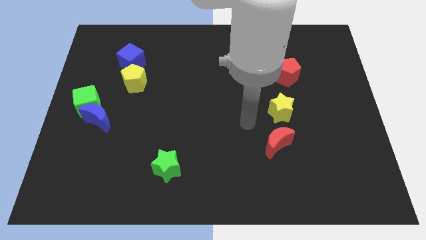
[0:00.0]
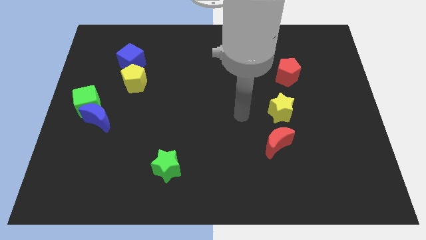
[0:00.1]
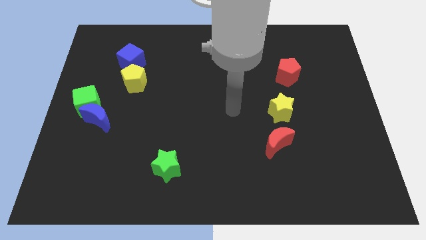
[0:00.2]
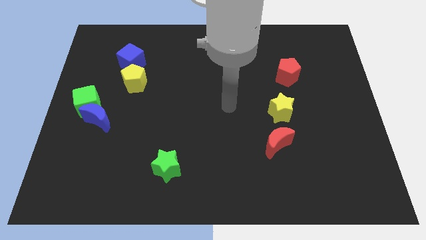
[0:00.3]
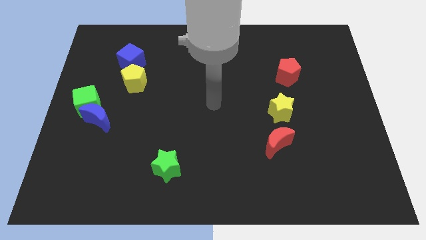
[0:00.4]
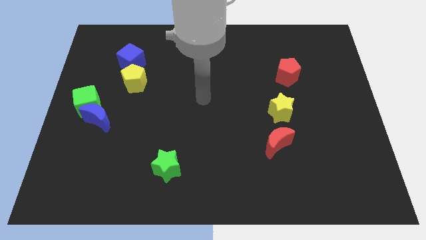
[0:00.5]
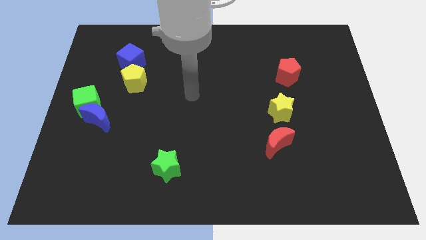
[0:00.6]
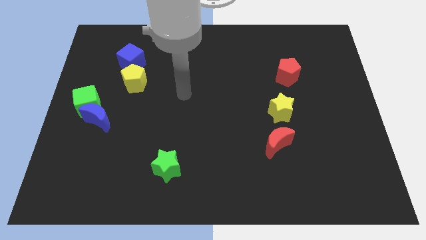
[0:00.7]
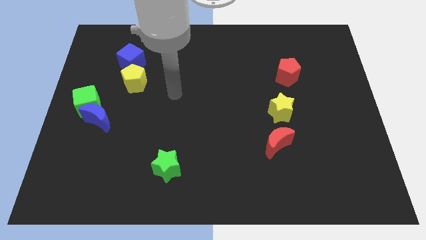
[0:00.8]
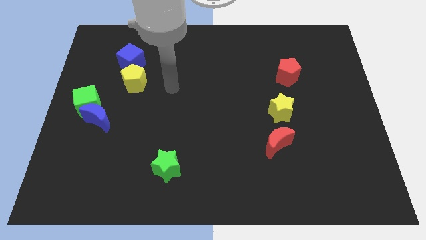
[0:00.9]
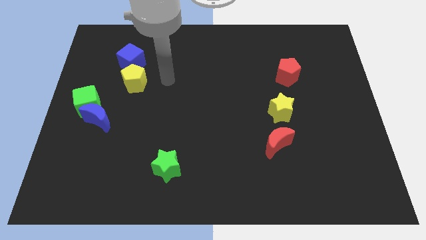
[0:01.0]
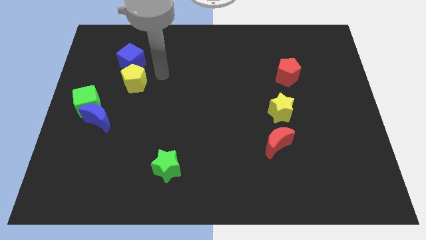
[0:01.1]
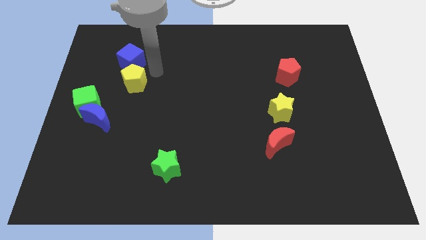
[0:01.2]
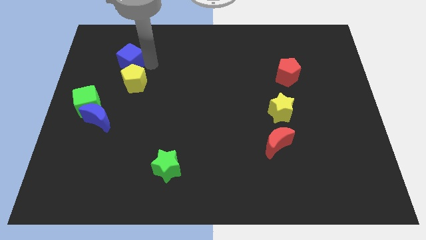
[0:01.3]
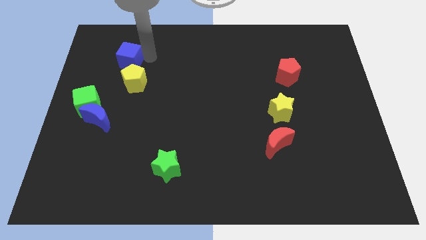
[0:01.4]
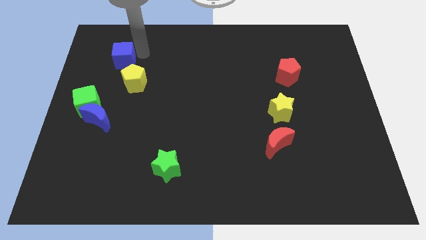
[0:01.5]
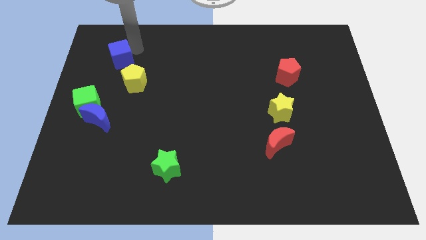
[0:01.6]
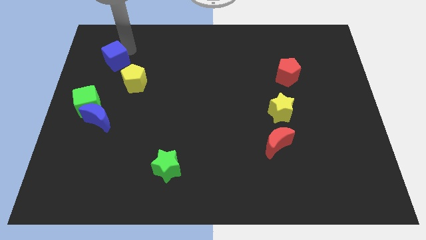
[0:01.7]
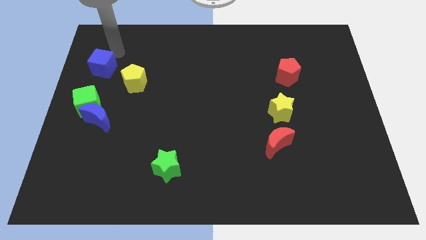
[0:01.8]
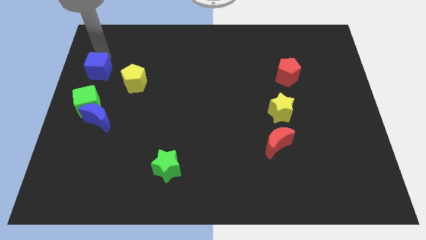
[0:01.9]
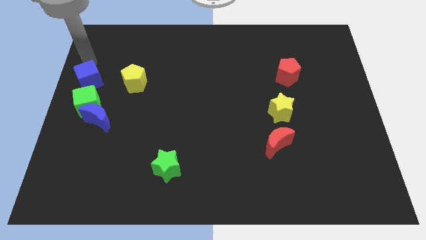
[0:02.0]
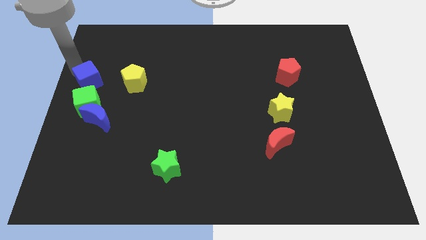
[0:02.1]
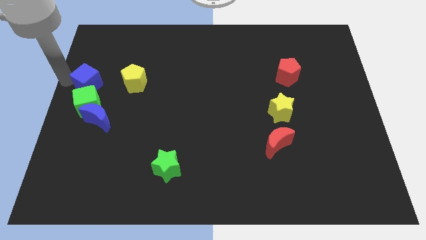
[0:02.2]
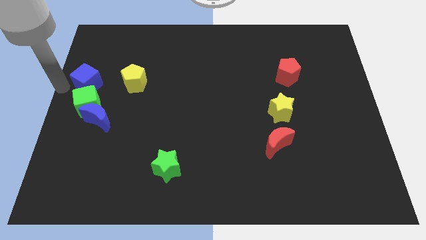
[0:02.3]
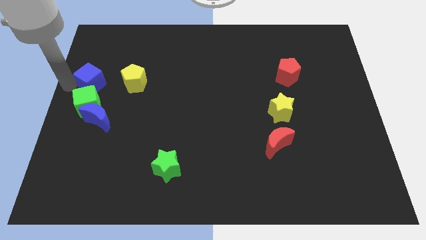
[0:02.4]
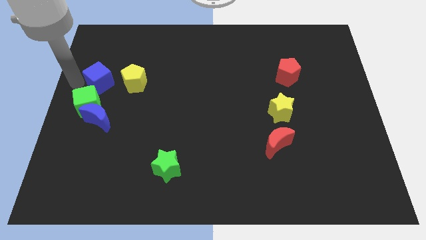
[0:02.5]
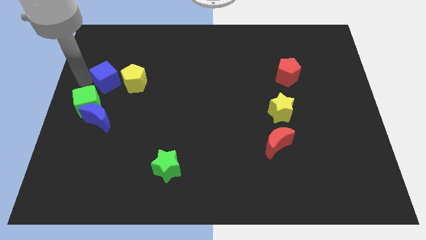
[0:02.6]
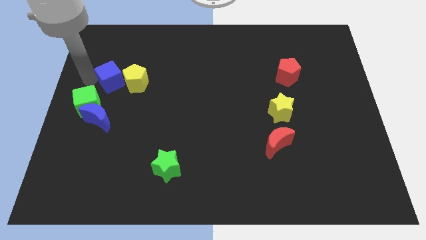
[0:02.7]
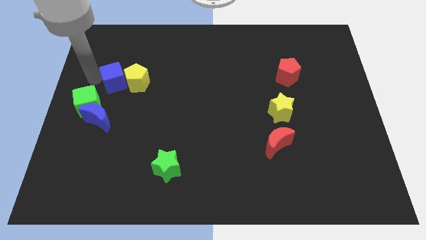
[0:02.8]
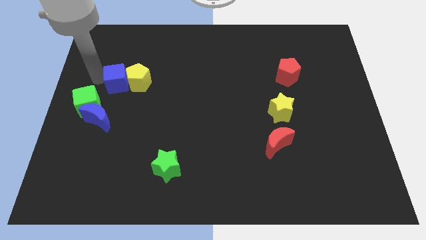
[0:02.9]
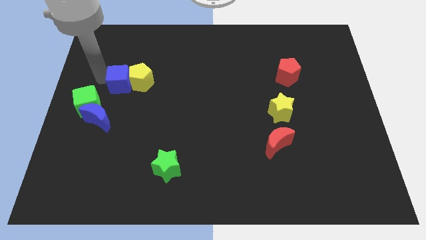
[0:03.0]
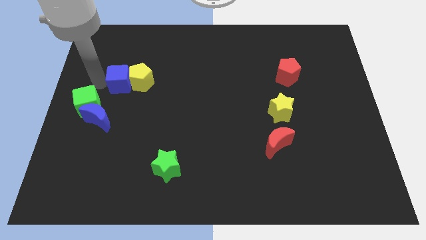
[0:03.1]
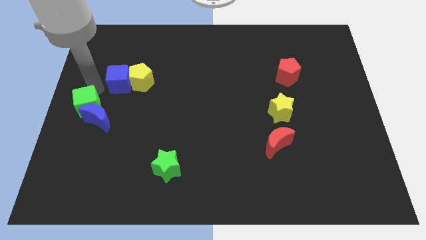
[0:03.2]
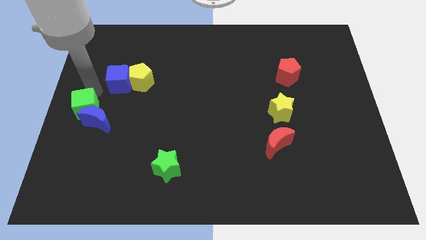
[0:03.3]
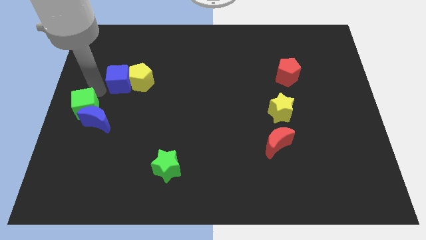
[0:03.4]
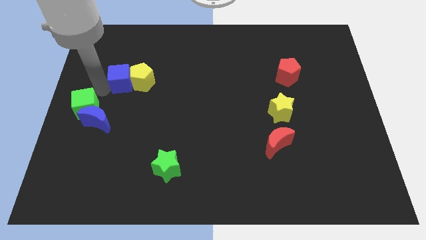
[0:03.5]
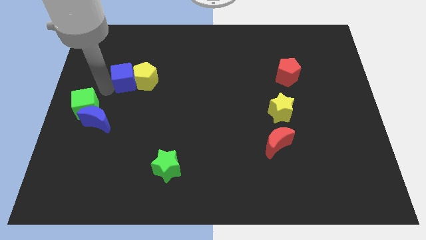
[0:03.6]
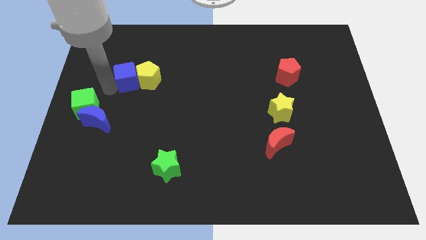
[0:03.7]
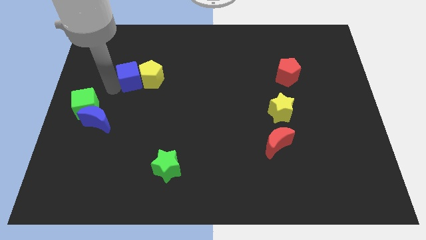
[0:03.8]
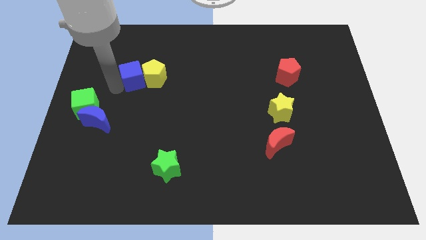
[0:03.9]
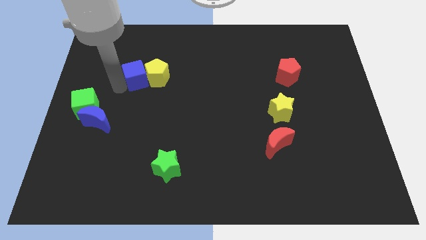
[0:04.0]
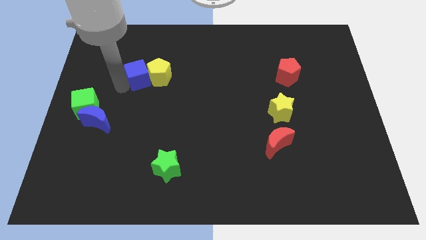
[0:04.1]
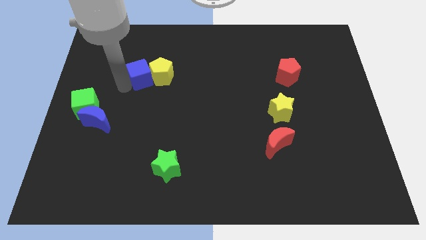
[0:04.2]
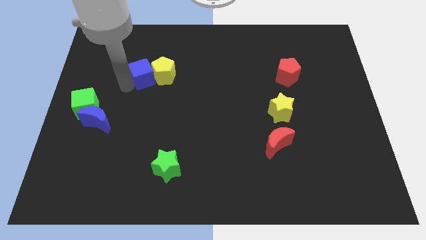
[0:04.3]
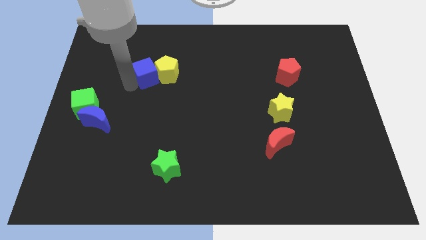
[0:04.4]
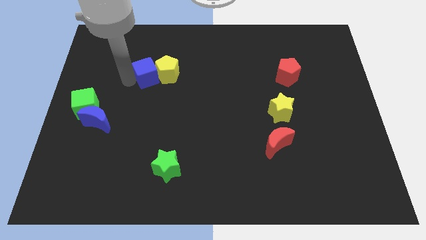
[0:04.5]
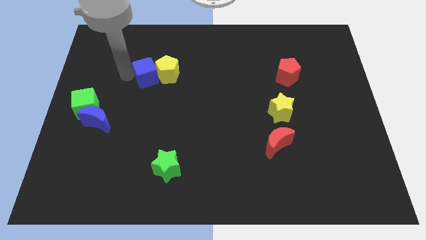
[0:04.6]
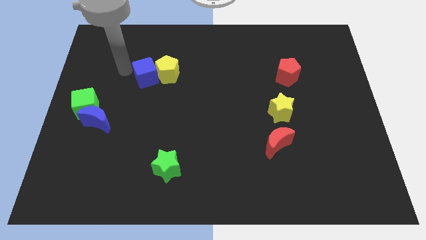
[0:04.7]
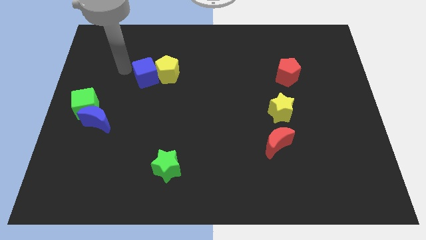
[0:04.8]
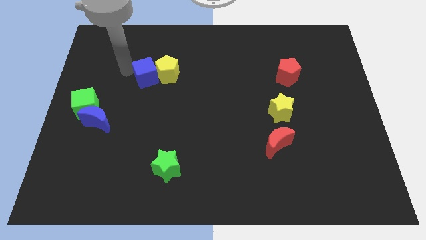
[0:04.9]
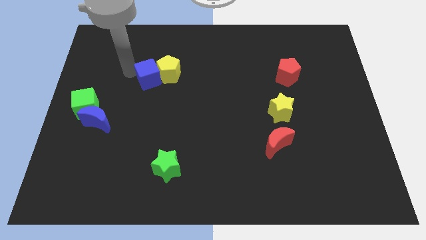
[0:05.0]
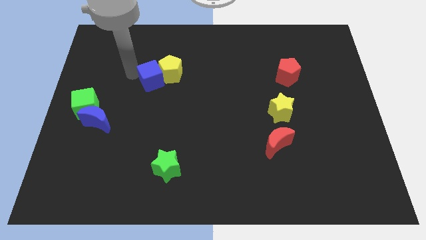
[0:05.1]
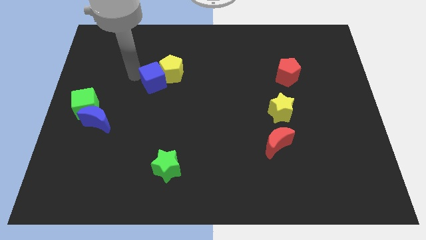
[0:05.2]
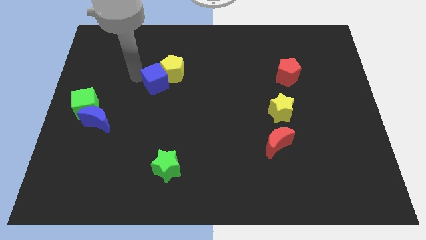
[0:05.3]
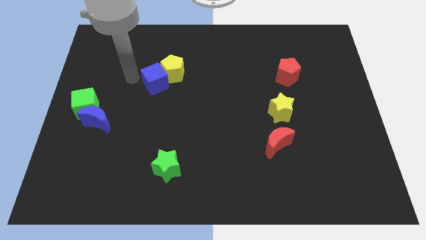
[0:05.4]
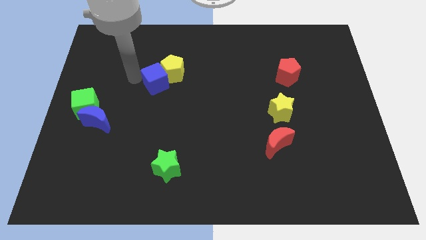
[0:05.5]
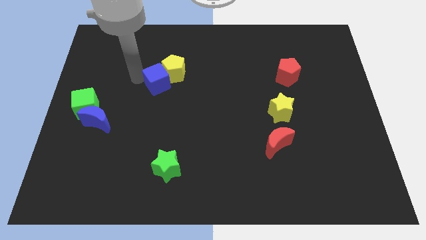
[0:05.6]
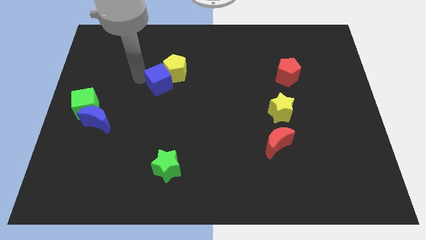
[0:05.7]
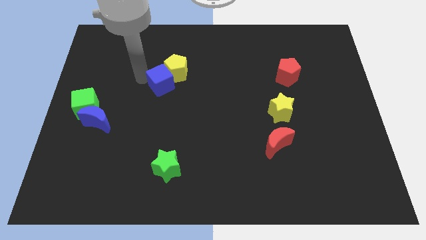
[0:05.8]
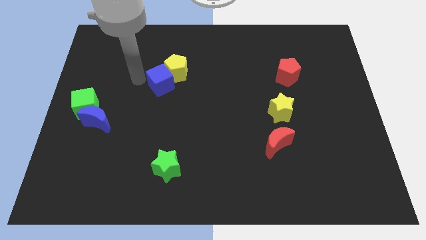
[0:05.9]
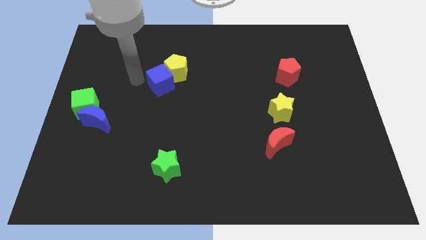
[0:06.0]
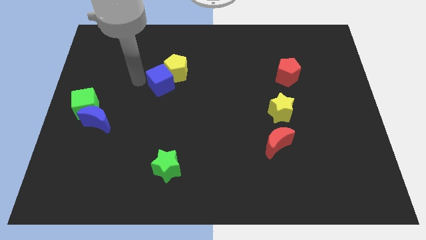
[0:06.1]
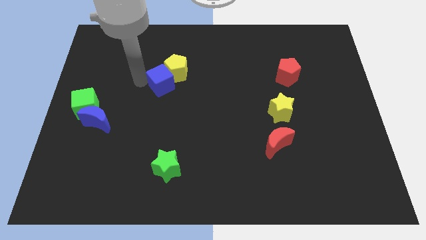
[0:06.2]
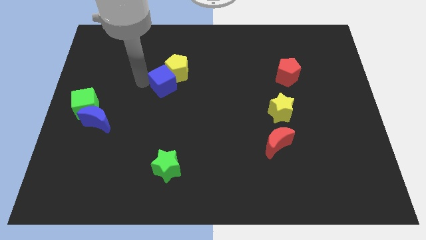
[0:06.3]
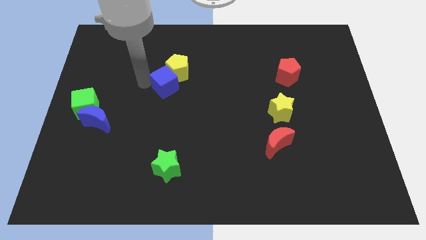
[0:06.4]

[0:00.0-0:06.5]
put the blue cube to the center

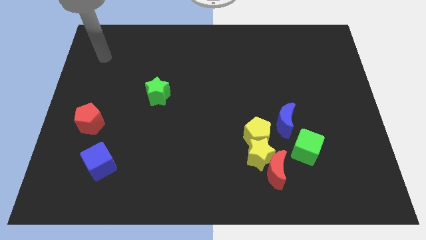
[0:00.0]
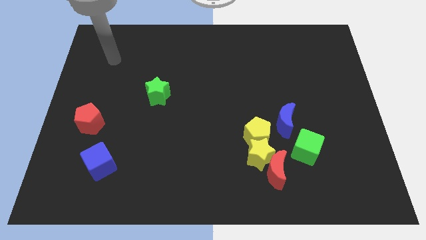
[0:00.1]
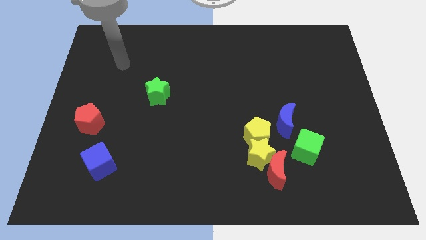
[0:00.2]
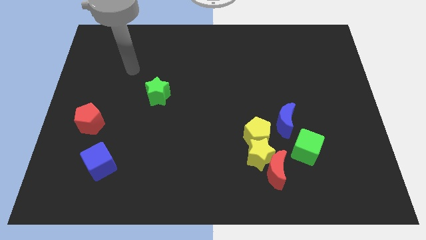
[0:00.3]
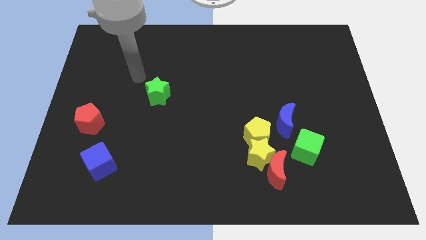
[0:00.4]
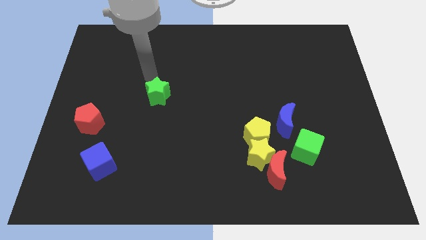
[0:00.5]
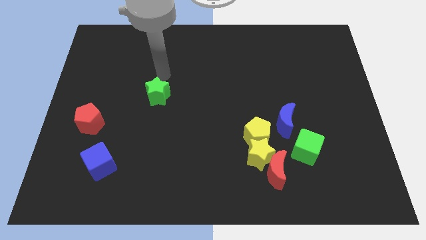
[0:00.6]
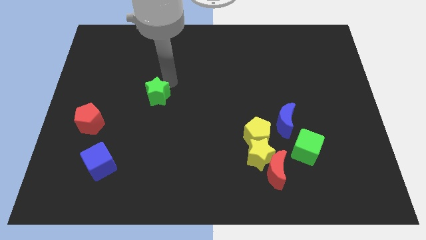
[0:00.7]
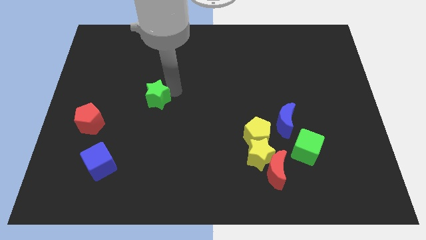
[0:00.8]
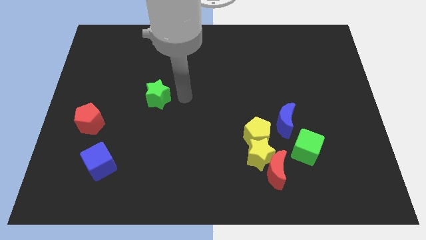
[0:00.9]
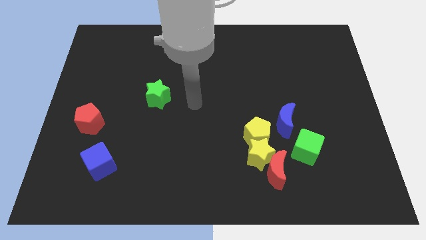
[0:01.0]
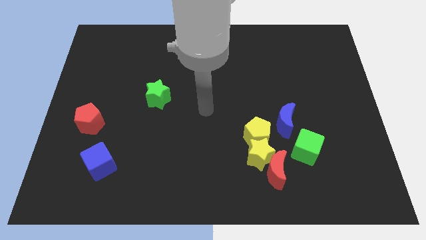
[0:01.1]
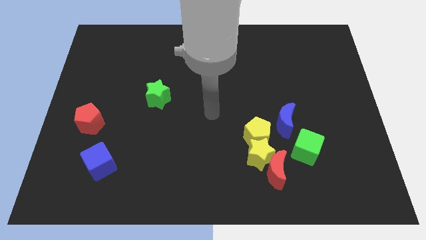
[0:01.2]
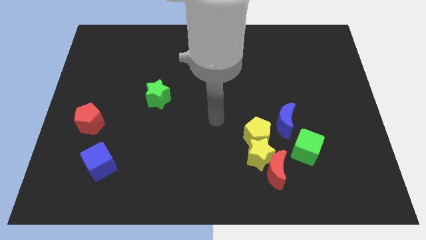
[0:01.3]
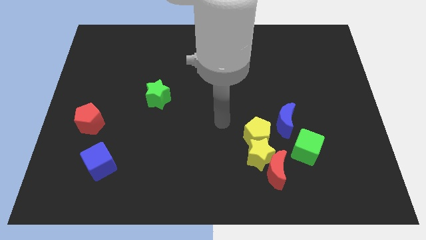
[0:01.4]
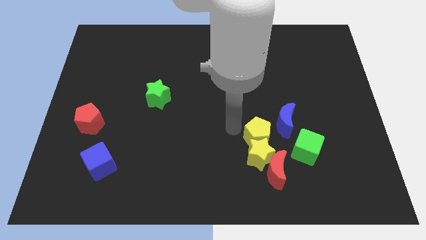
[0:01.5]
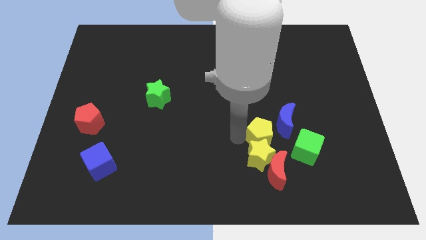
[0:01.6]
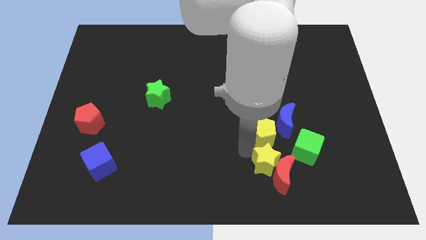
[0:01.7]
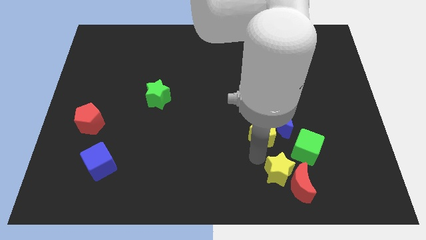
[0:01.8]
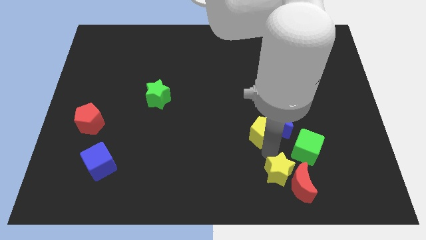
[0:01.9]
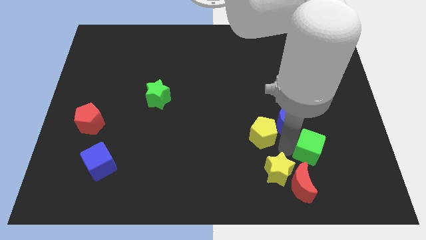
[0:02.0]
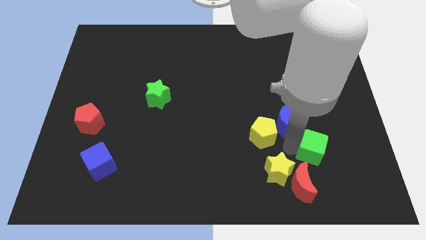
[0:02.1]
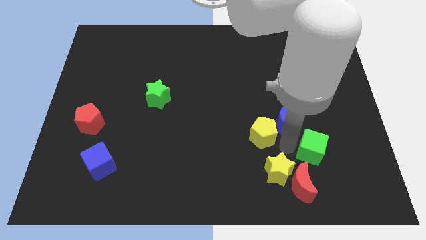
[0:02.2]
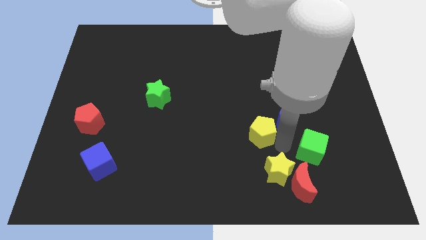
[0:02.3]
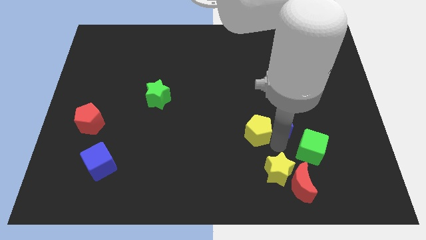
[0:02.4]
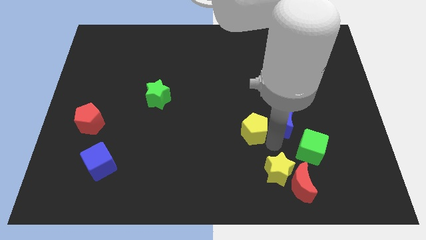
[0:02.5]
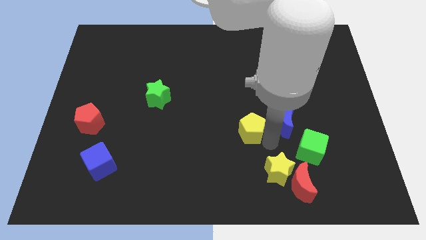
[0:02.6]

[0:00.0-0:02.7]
slide the yellow pentagon to the center of the board
